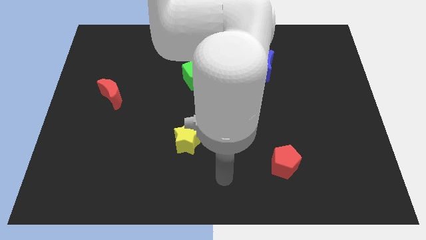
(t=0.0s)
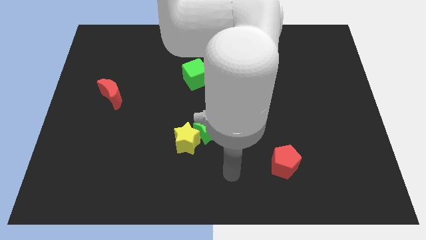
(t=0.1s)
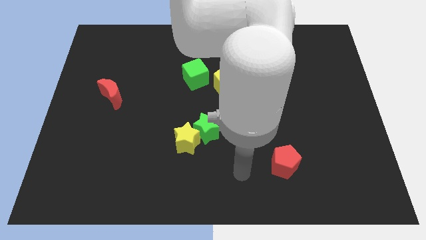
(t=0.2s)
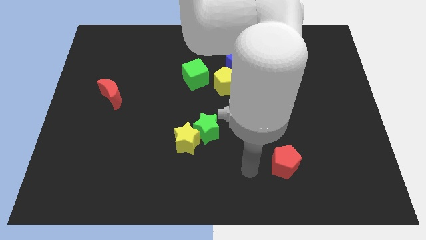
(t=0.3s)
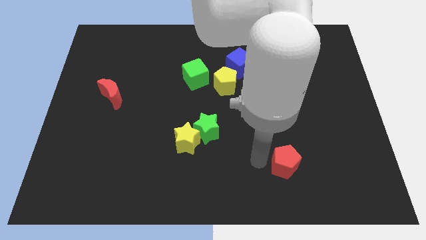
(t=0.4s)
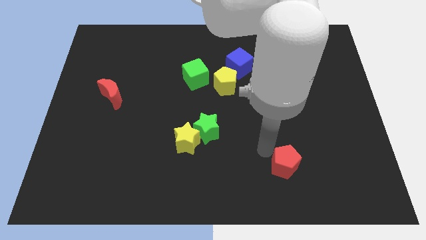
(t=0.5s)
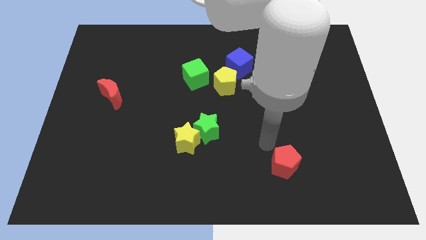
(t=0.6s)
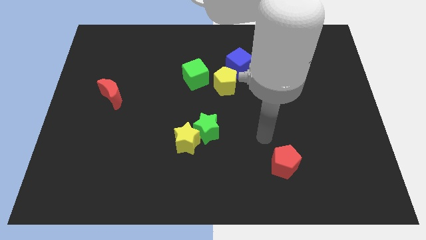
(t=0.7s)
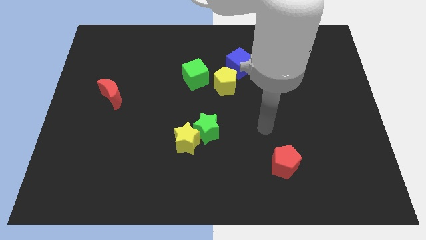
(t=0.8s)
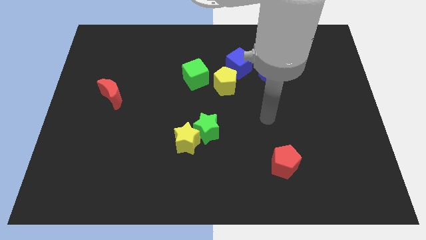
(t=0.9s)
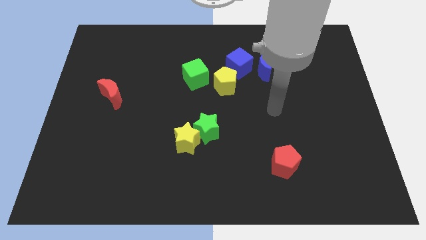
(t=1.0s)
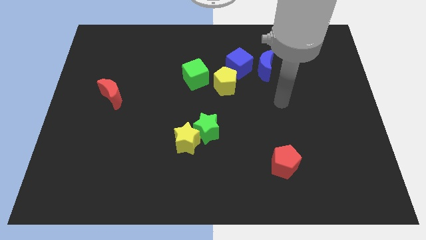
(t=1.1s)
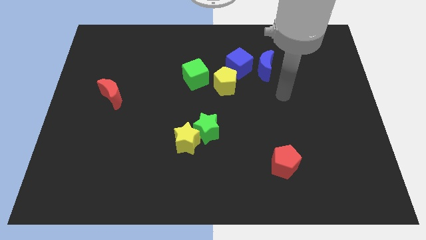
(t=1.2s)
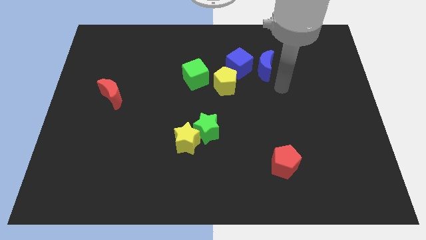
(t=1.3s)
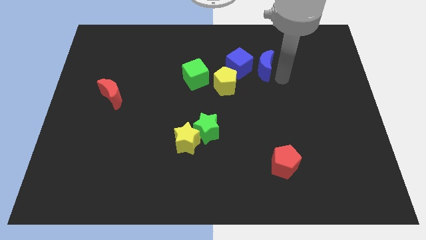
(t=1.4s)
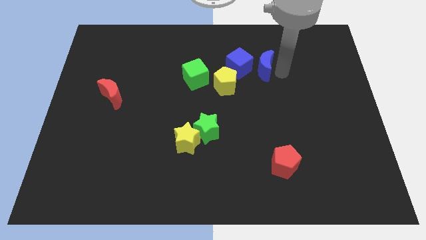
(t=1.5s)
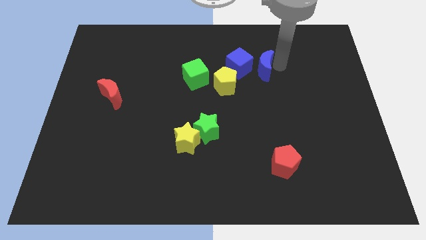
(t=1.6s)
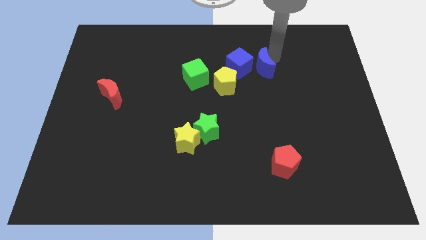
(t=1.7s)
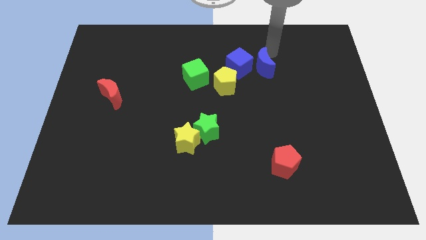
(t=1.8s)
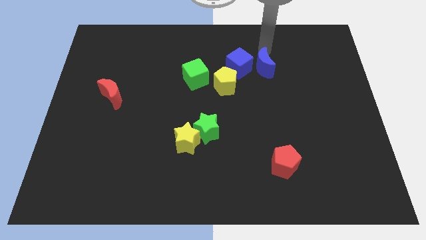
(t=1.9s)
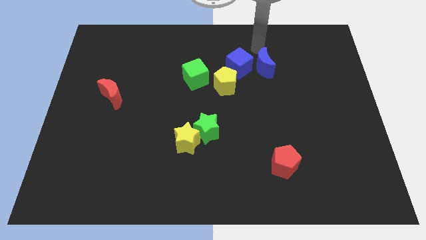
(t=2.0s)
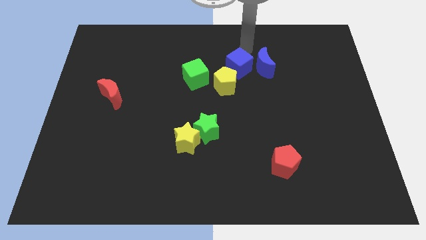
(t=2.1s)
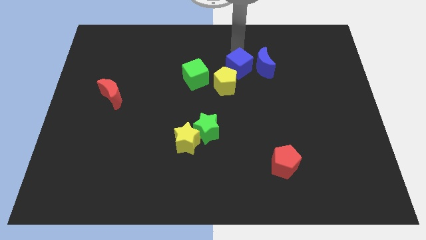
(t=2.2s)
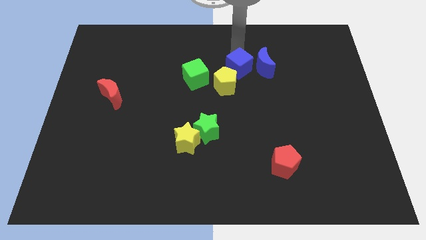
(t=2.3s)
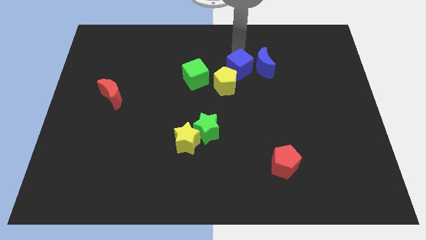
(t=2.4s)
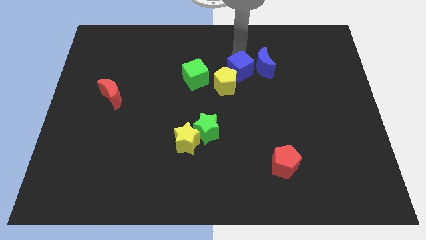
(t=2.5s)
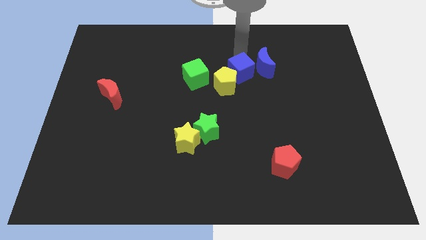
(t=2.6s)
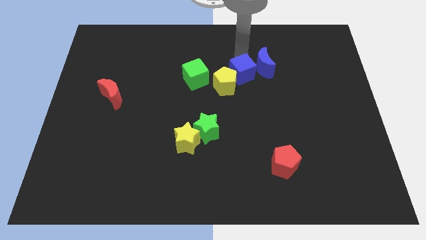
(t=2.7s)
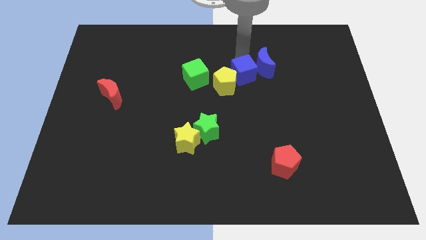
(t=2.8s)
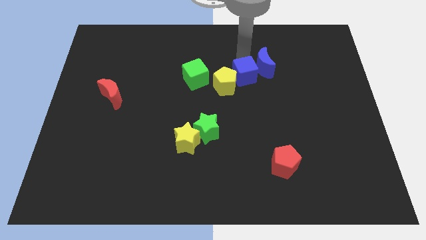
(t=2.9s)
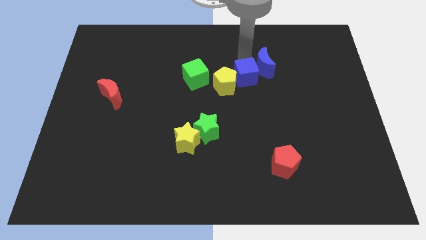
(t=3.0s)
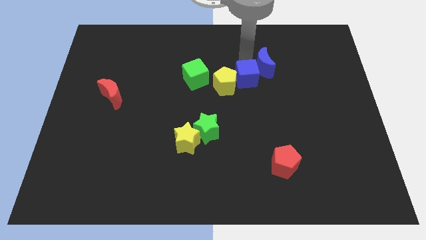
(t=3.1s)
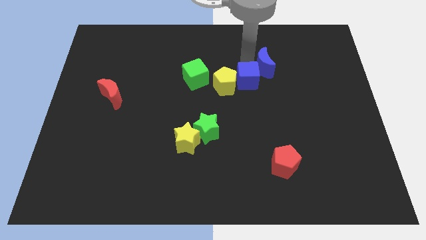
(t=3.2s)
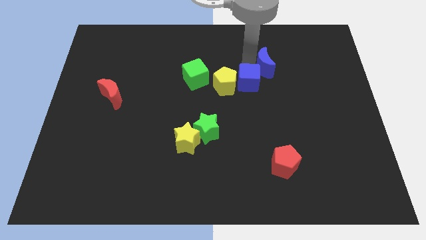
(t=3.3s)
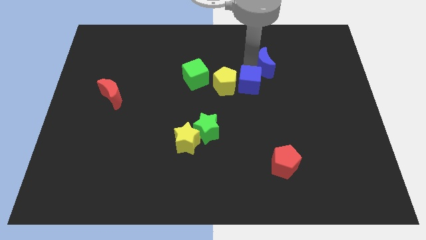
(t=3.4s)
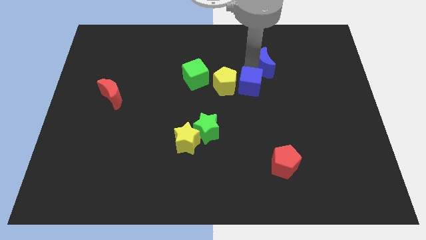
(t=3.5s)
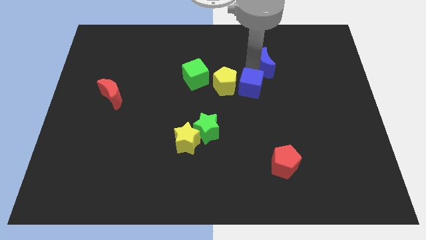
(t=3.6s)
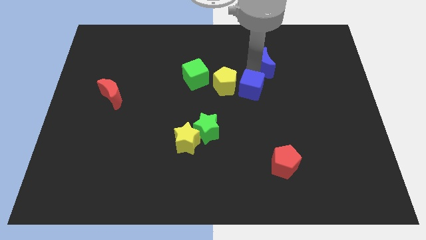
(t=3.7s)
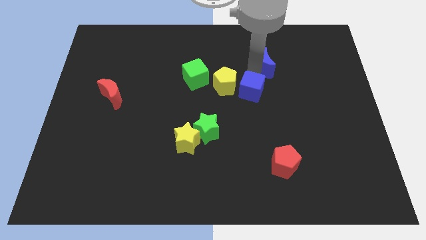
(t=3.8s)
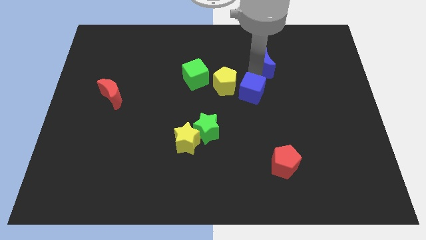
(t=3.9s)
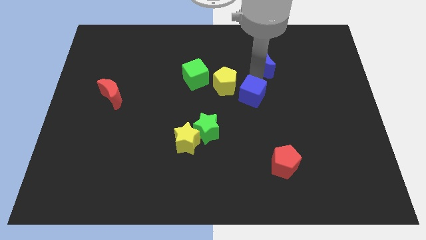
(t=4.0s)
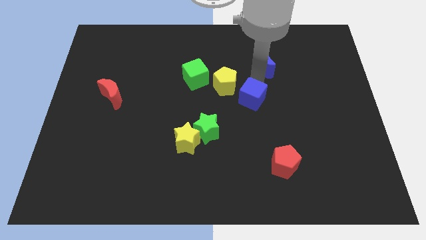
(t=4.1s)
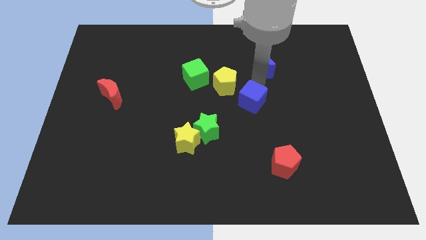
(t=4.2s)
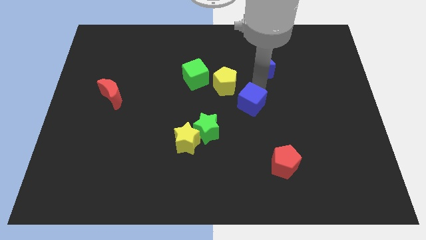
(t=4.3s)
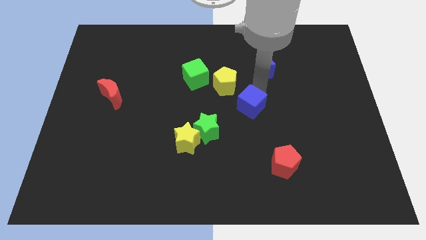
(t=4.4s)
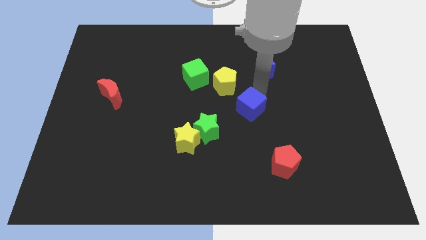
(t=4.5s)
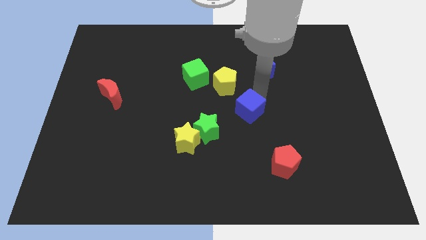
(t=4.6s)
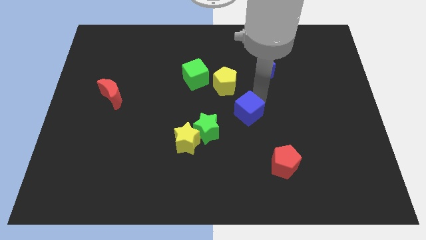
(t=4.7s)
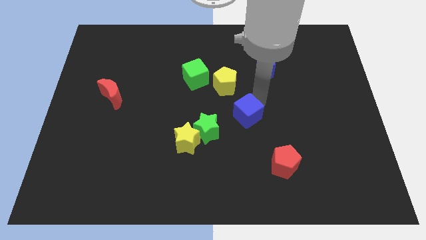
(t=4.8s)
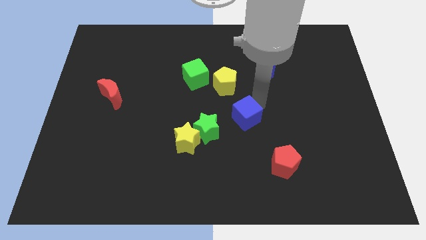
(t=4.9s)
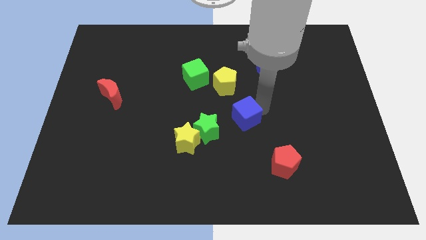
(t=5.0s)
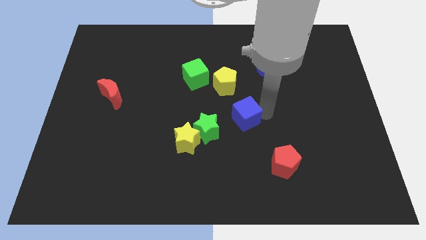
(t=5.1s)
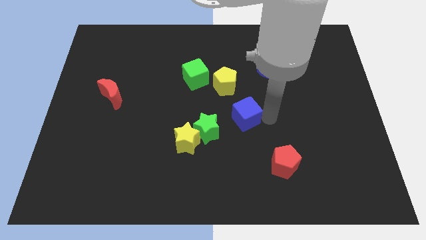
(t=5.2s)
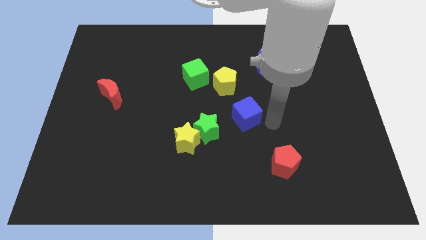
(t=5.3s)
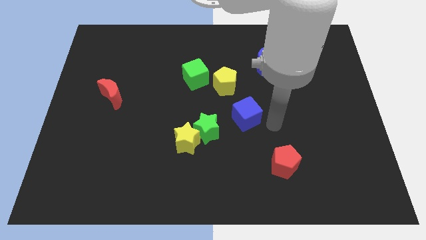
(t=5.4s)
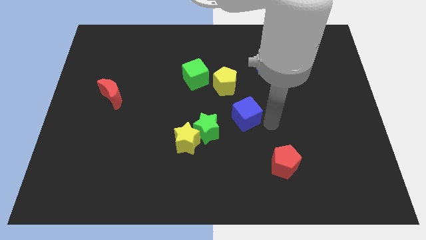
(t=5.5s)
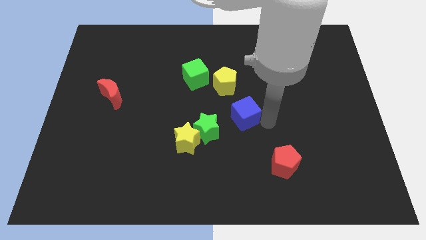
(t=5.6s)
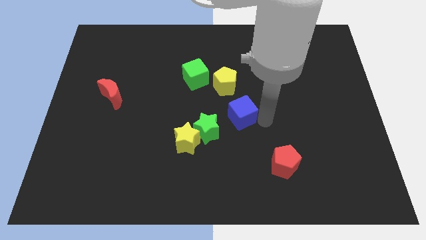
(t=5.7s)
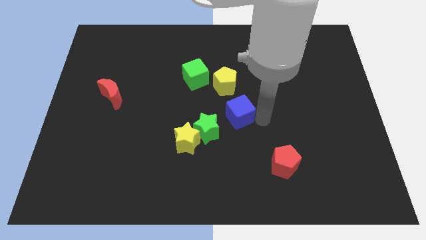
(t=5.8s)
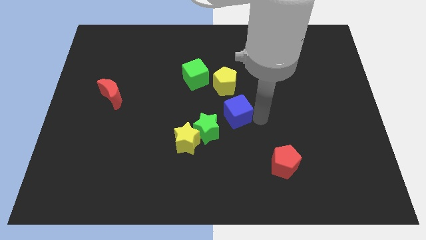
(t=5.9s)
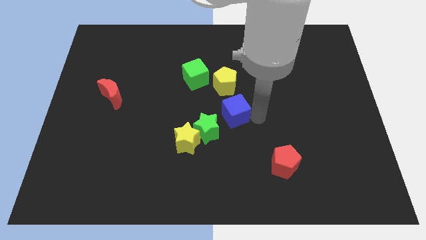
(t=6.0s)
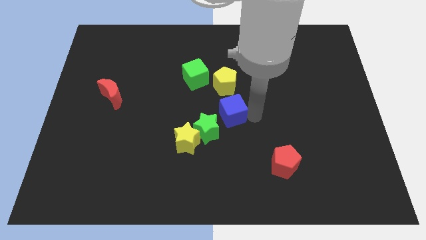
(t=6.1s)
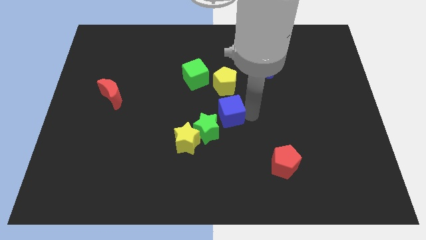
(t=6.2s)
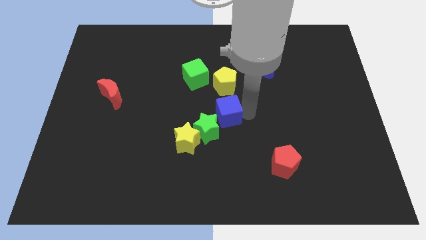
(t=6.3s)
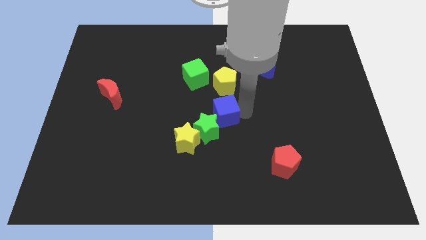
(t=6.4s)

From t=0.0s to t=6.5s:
move the blue cube towards the green star

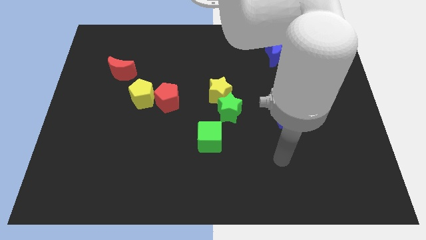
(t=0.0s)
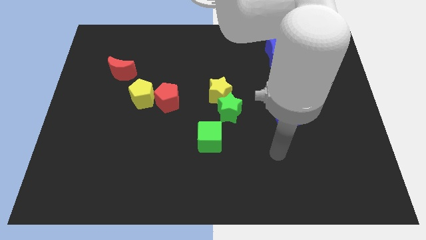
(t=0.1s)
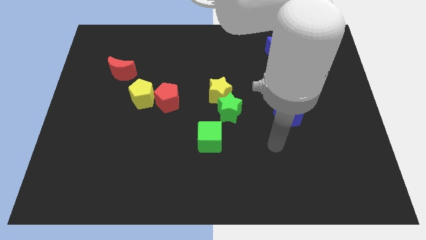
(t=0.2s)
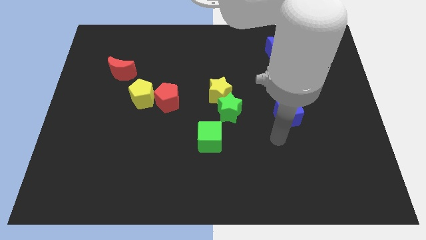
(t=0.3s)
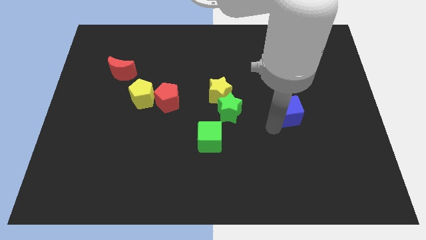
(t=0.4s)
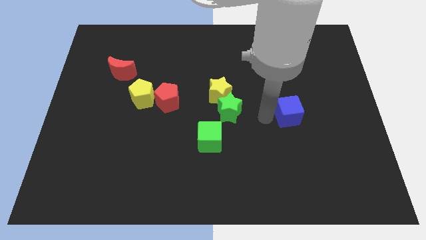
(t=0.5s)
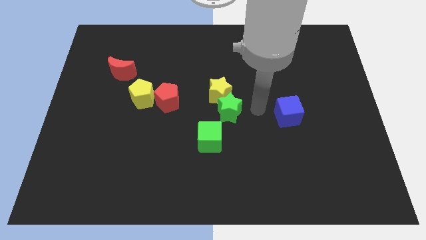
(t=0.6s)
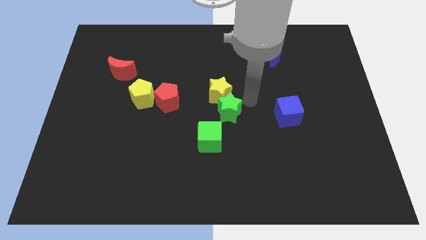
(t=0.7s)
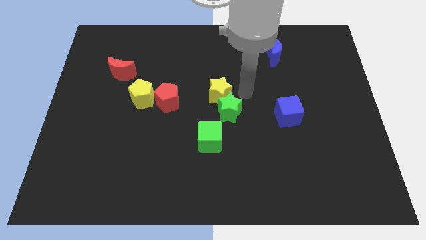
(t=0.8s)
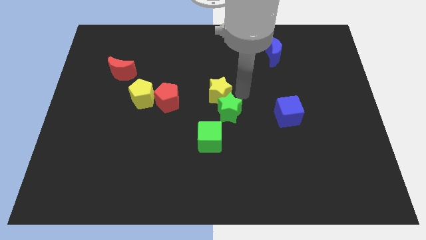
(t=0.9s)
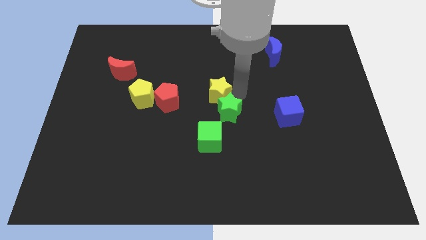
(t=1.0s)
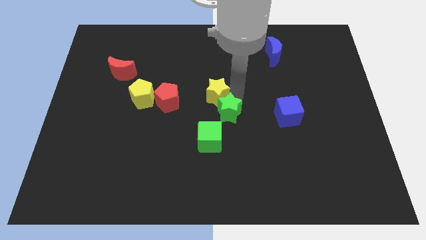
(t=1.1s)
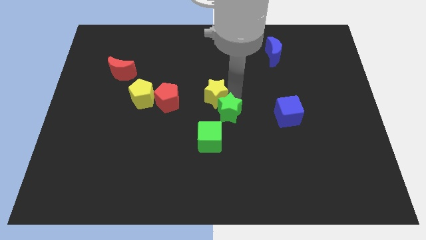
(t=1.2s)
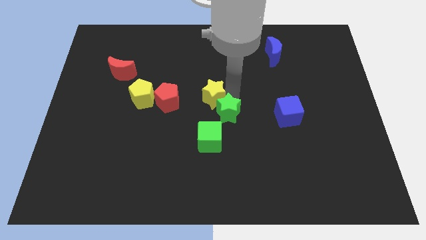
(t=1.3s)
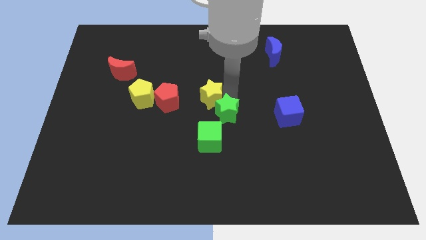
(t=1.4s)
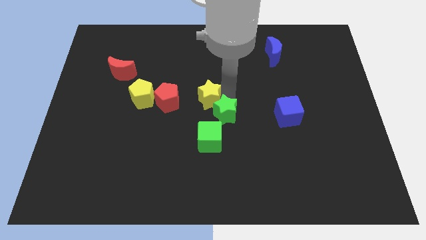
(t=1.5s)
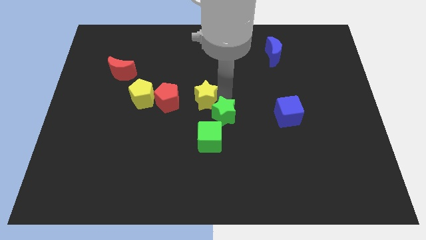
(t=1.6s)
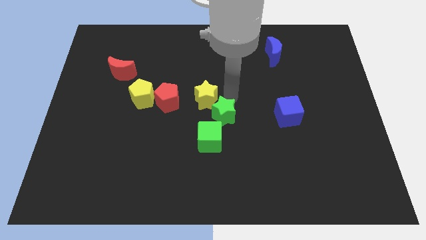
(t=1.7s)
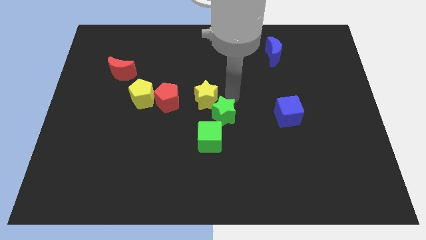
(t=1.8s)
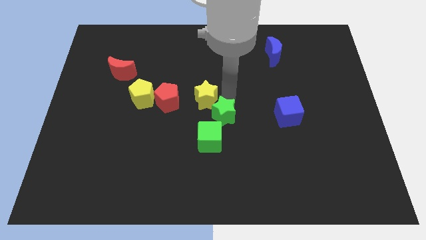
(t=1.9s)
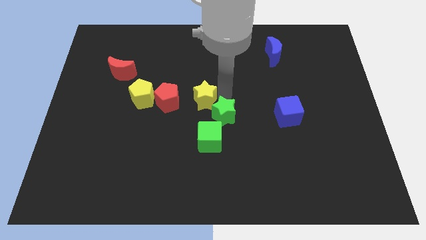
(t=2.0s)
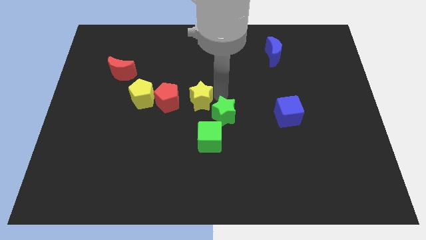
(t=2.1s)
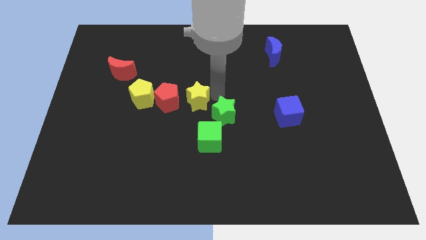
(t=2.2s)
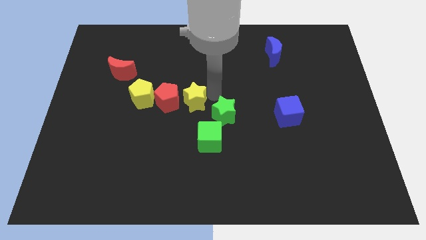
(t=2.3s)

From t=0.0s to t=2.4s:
slide the yellow star next to the red pentagon
